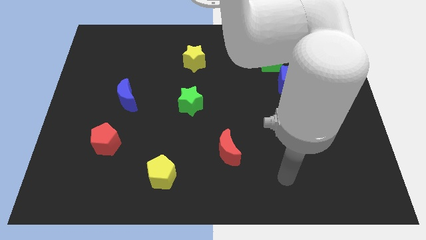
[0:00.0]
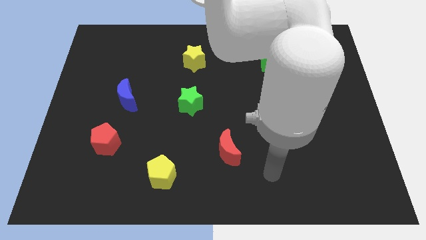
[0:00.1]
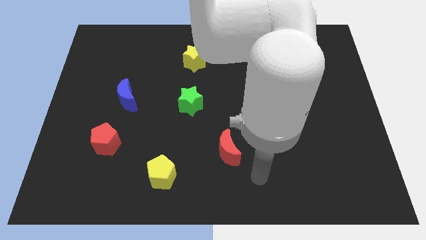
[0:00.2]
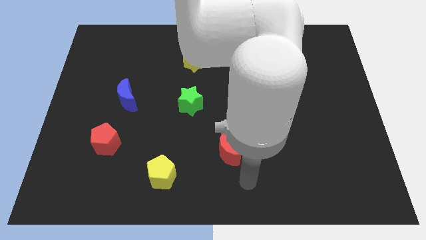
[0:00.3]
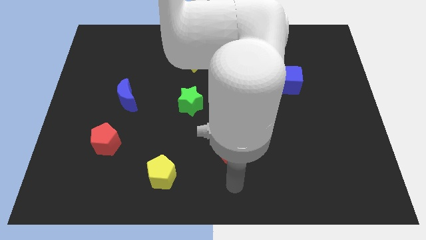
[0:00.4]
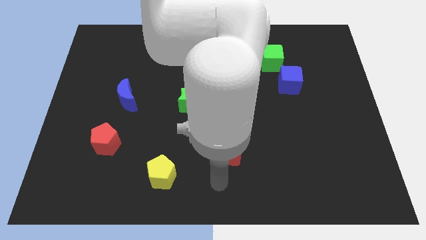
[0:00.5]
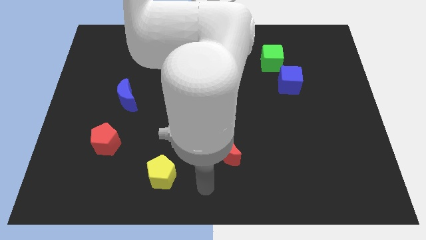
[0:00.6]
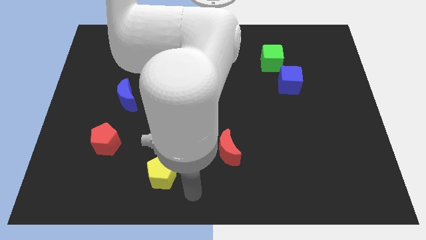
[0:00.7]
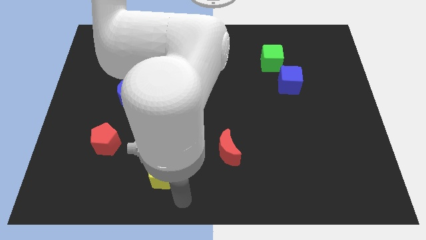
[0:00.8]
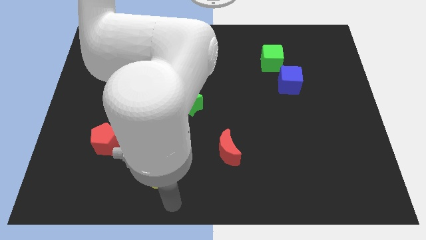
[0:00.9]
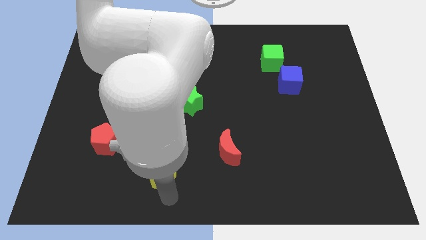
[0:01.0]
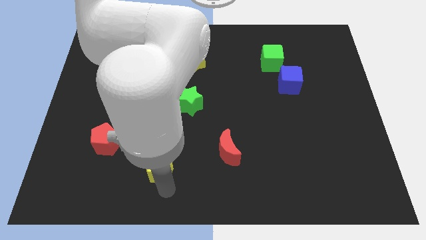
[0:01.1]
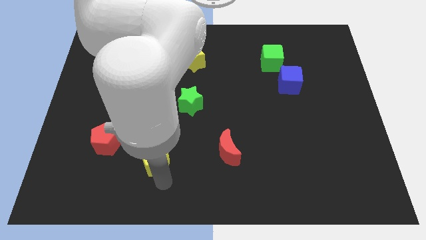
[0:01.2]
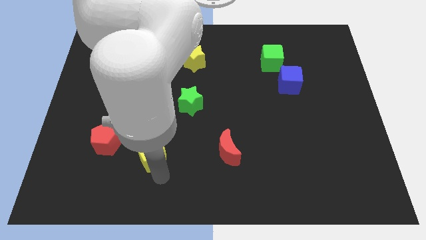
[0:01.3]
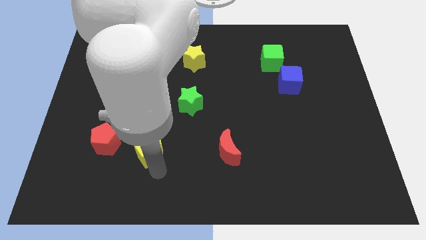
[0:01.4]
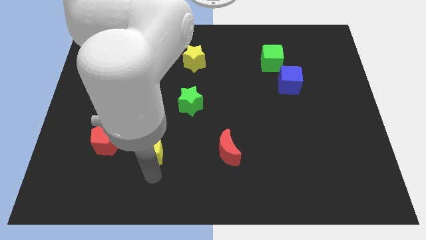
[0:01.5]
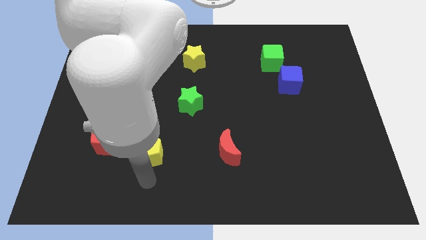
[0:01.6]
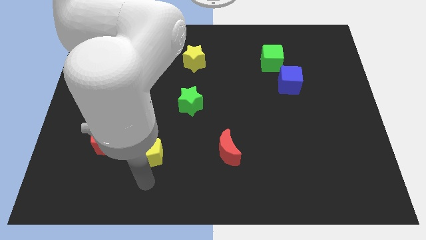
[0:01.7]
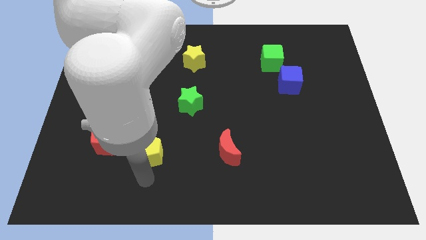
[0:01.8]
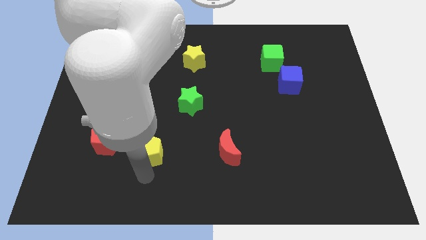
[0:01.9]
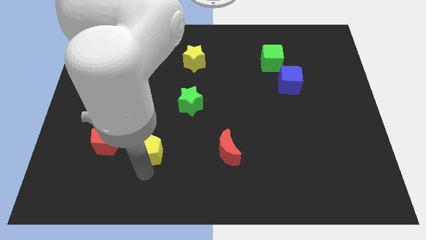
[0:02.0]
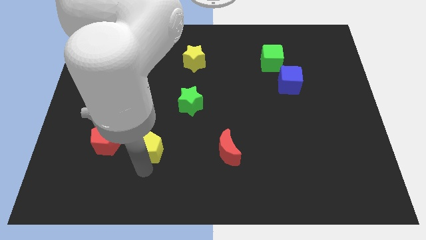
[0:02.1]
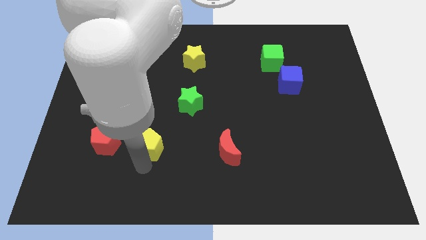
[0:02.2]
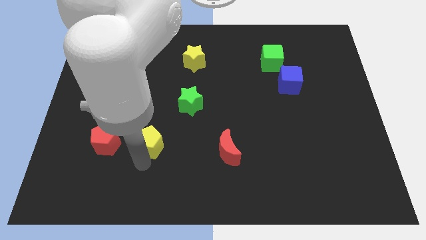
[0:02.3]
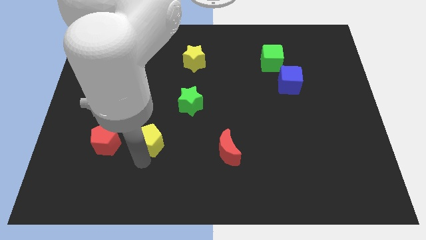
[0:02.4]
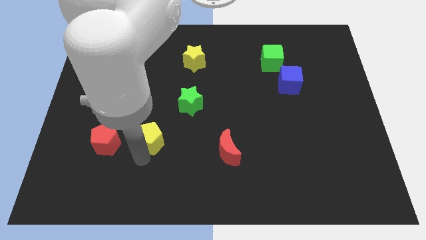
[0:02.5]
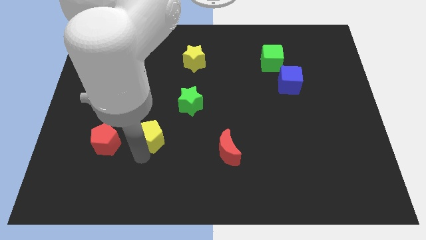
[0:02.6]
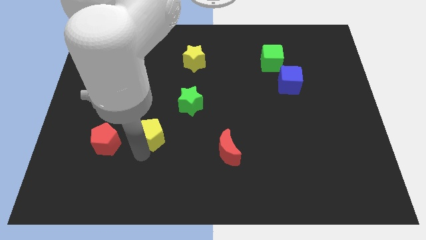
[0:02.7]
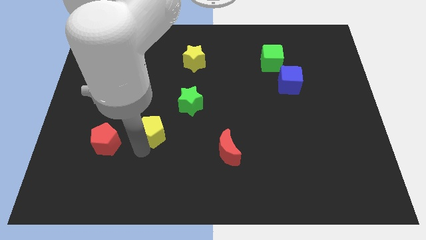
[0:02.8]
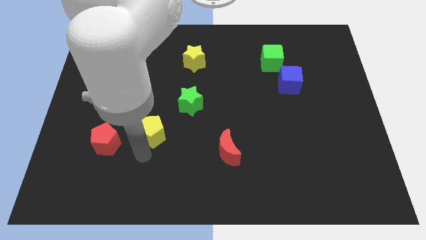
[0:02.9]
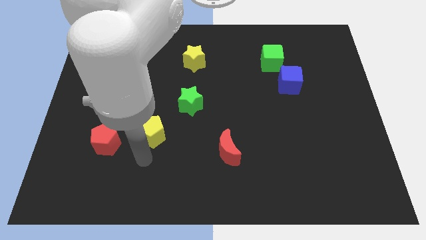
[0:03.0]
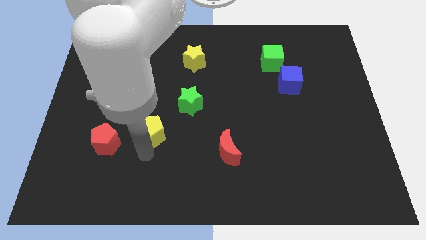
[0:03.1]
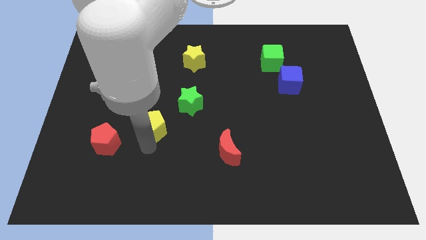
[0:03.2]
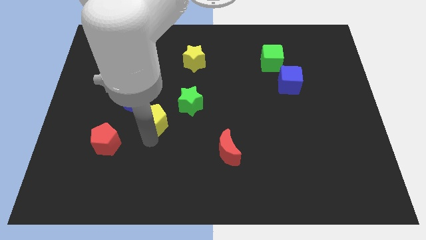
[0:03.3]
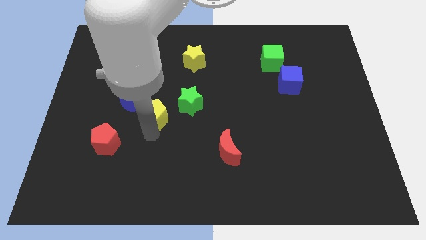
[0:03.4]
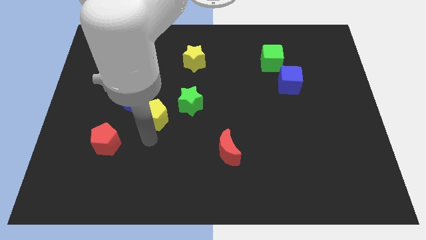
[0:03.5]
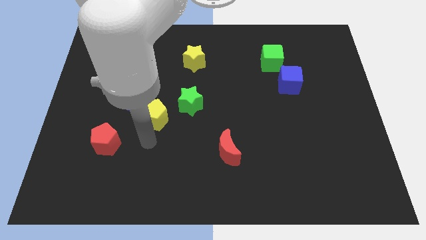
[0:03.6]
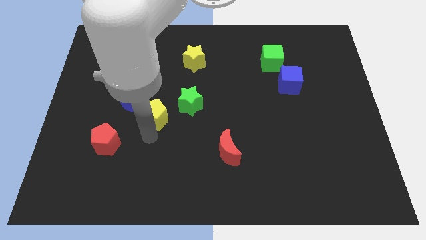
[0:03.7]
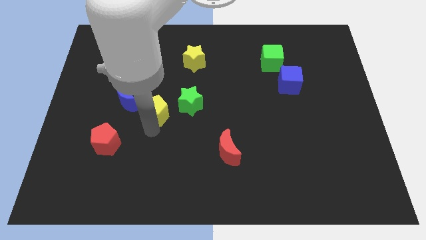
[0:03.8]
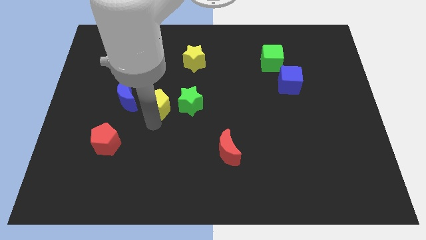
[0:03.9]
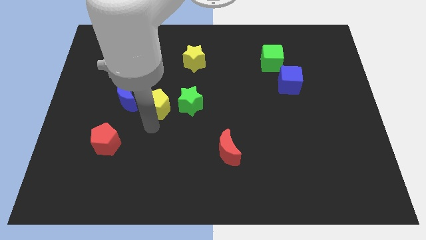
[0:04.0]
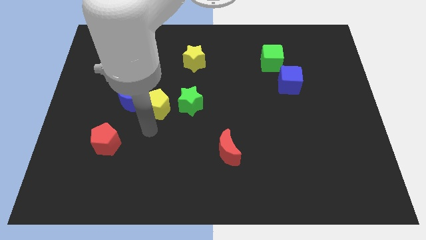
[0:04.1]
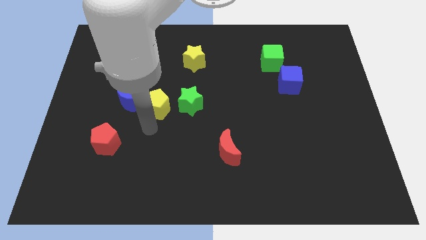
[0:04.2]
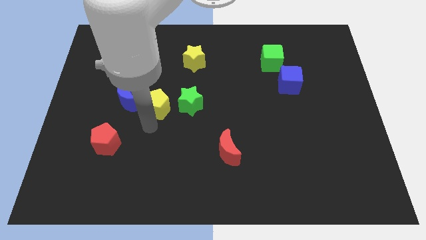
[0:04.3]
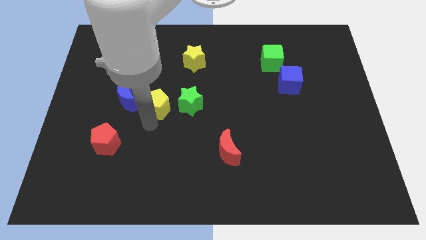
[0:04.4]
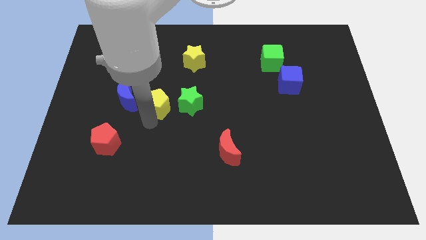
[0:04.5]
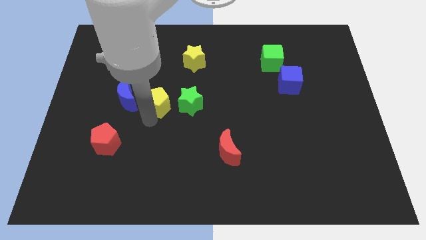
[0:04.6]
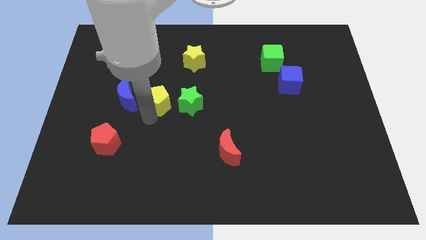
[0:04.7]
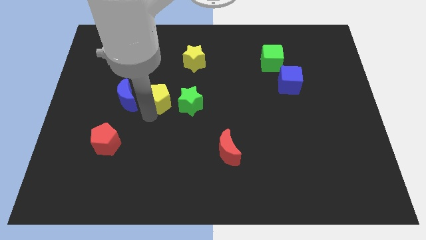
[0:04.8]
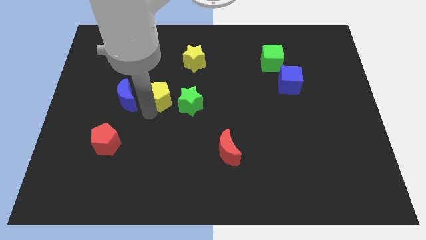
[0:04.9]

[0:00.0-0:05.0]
push the yellow pentagon up

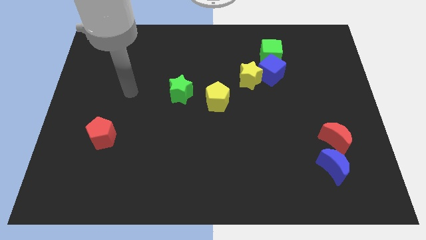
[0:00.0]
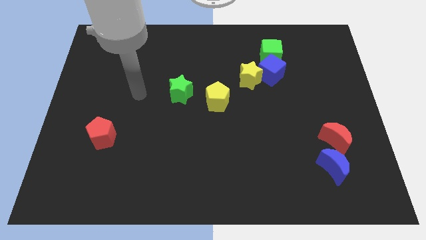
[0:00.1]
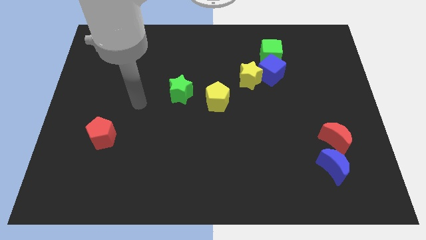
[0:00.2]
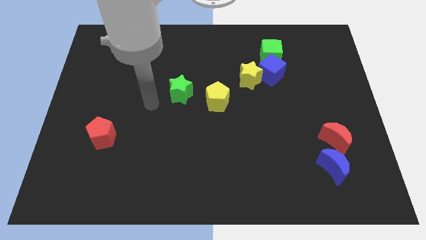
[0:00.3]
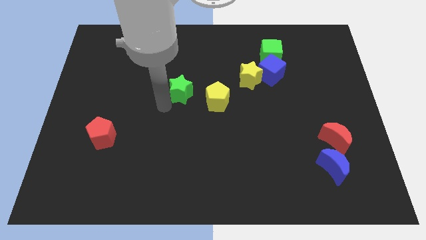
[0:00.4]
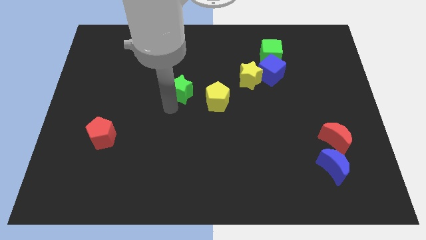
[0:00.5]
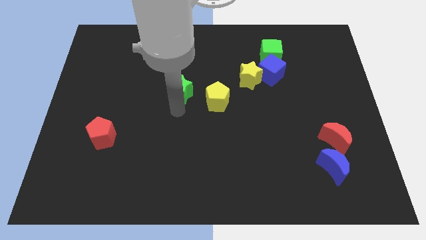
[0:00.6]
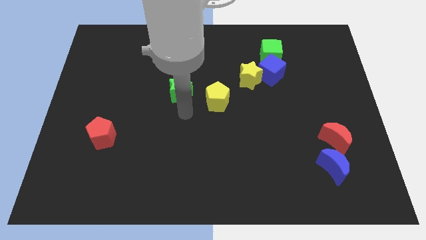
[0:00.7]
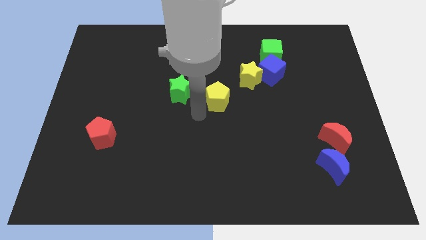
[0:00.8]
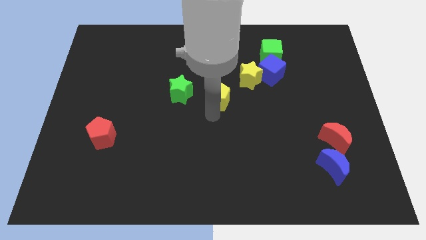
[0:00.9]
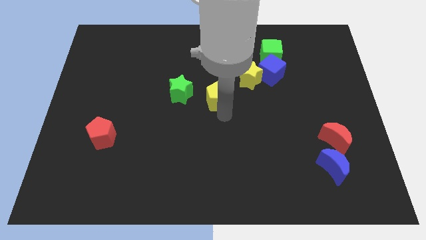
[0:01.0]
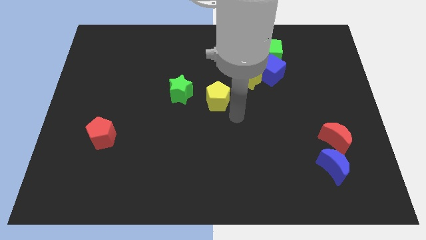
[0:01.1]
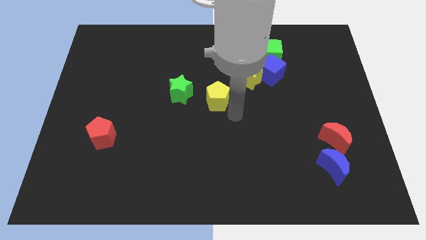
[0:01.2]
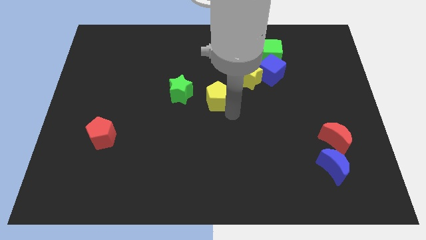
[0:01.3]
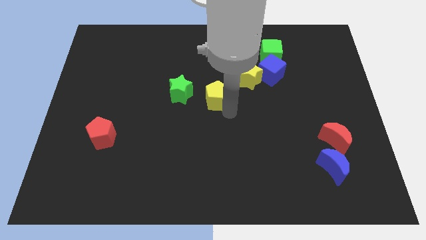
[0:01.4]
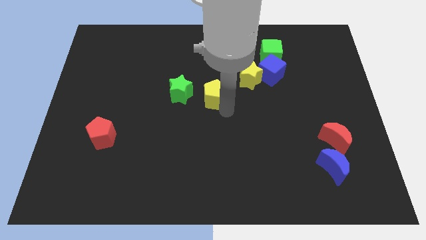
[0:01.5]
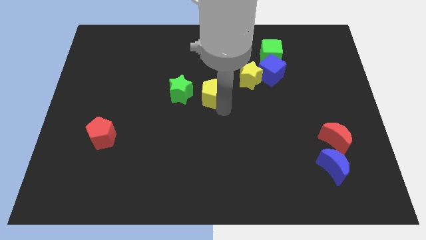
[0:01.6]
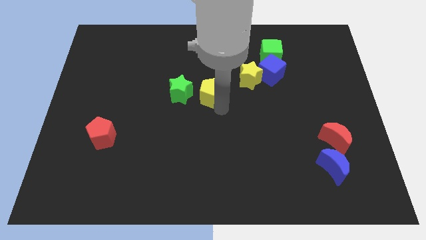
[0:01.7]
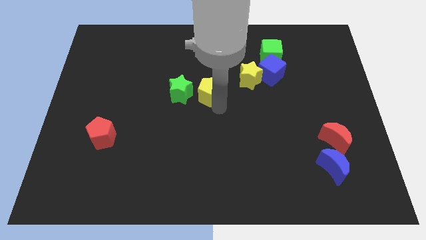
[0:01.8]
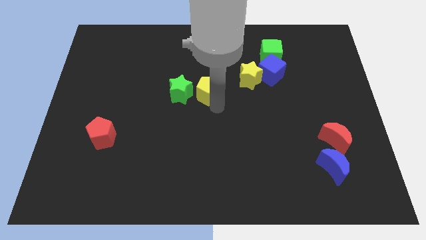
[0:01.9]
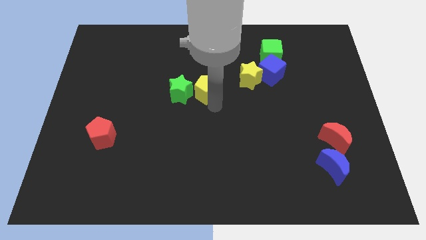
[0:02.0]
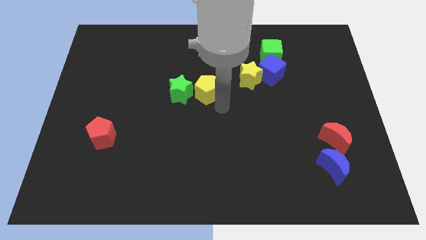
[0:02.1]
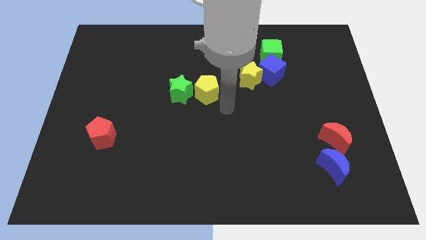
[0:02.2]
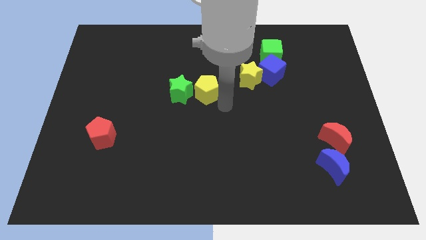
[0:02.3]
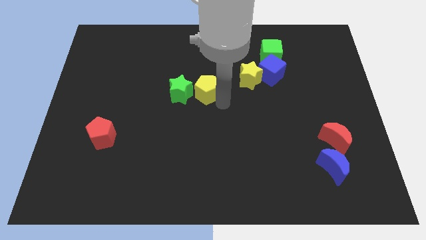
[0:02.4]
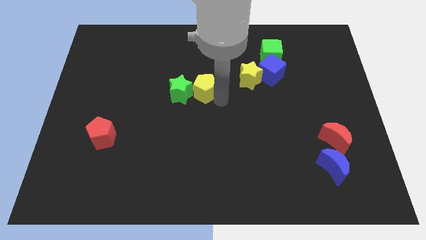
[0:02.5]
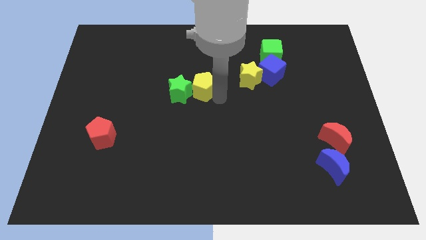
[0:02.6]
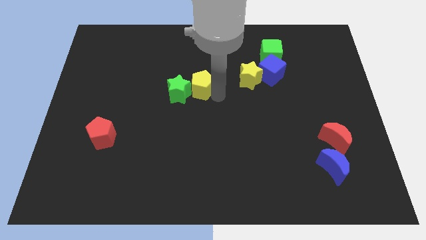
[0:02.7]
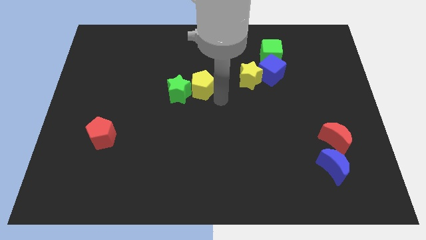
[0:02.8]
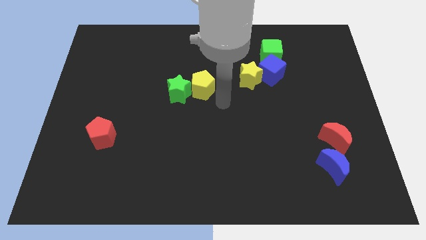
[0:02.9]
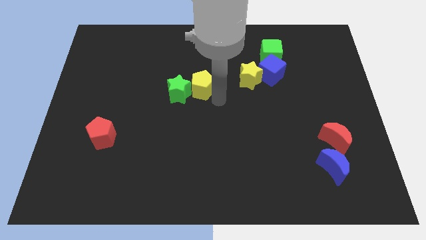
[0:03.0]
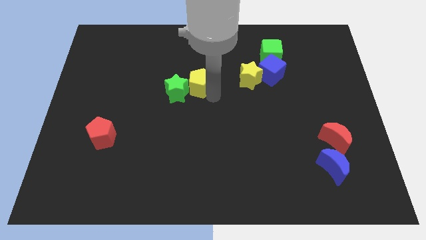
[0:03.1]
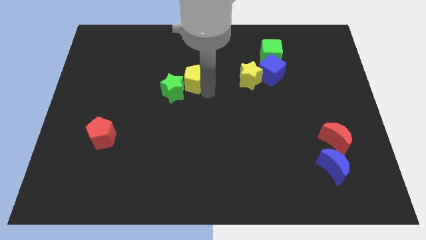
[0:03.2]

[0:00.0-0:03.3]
slide the yellow pentagon a little bit up and then left
